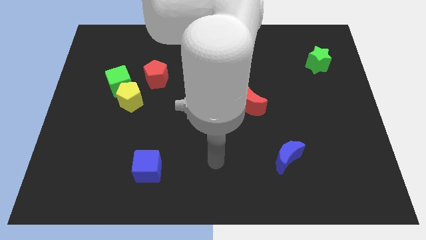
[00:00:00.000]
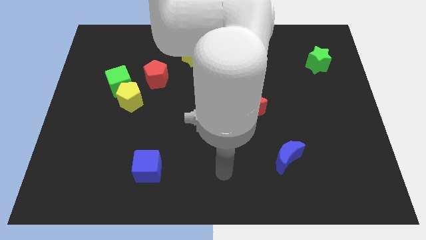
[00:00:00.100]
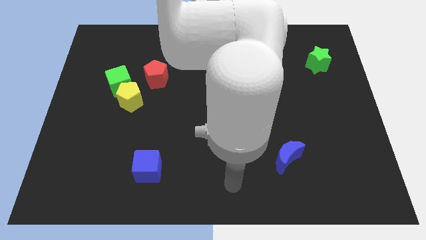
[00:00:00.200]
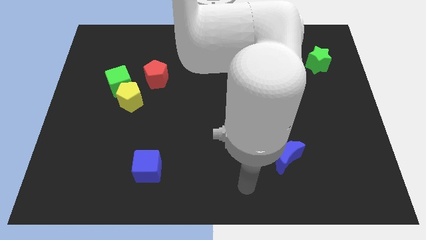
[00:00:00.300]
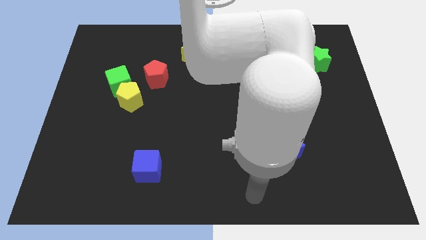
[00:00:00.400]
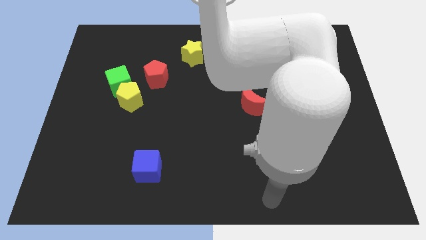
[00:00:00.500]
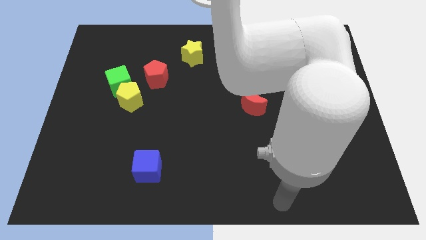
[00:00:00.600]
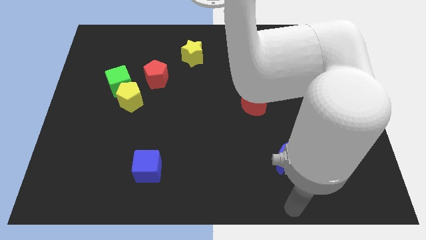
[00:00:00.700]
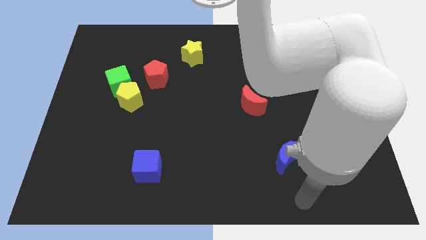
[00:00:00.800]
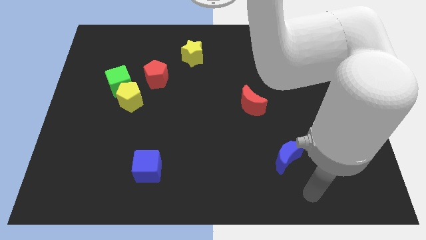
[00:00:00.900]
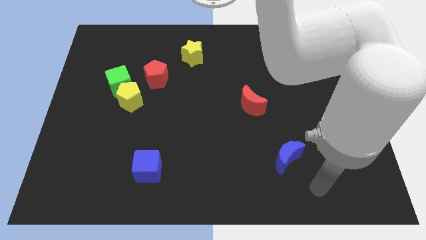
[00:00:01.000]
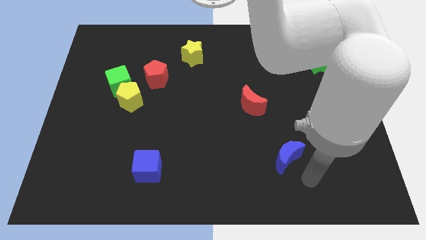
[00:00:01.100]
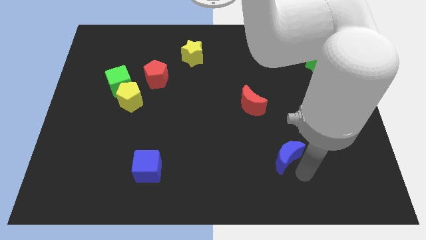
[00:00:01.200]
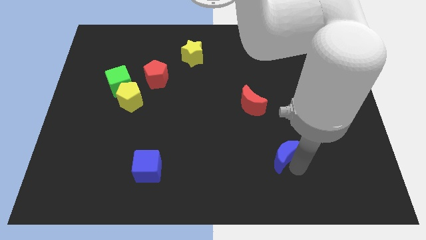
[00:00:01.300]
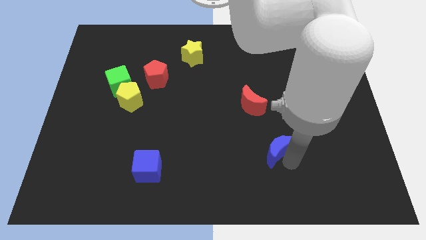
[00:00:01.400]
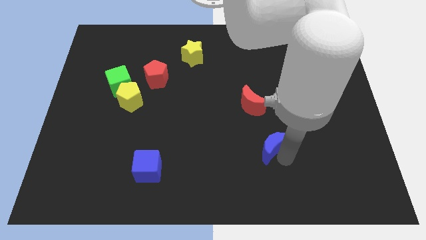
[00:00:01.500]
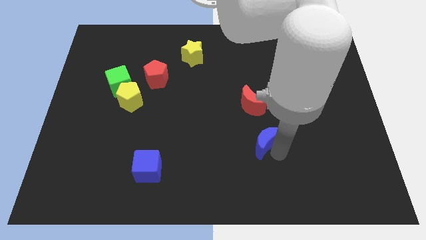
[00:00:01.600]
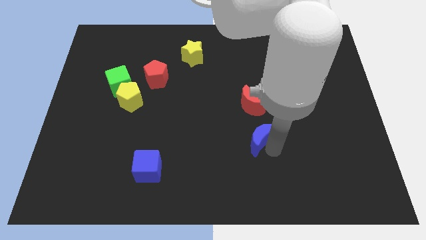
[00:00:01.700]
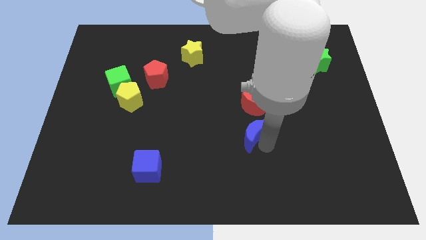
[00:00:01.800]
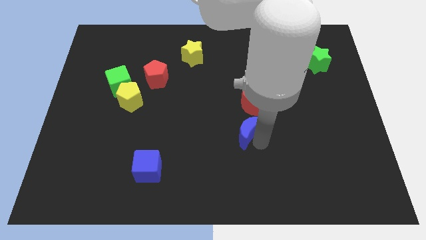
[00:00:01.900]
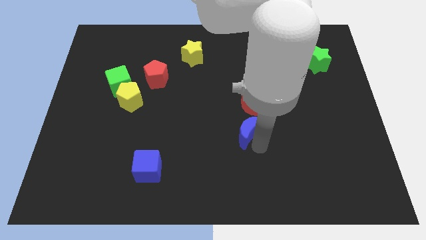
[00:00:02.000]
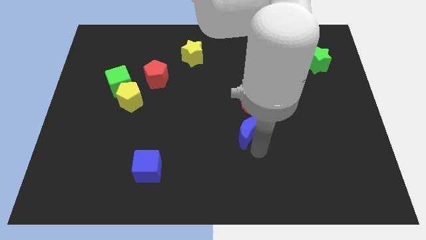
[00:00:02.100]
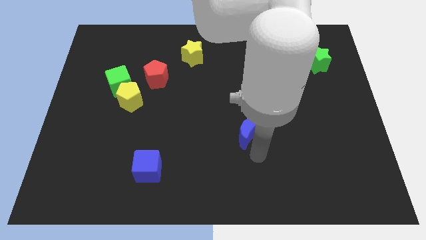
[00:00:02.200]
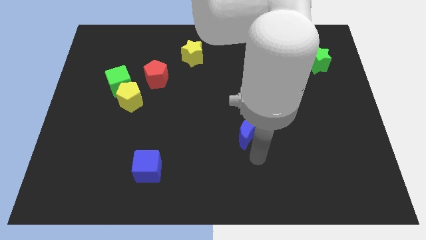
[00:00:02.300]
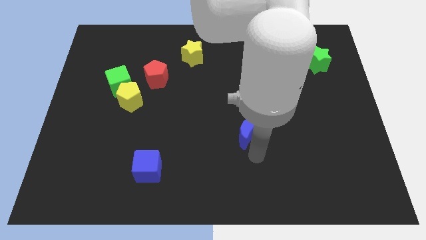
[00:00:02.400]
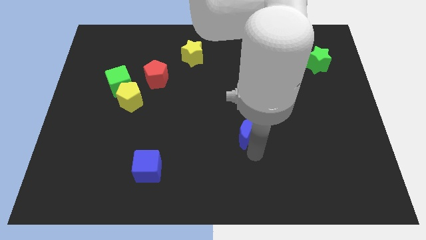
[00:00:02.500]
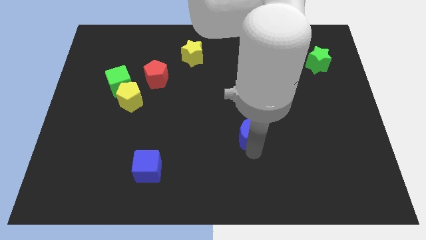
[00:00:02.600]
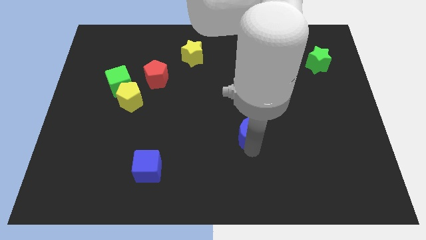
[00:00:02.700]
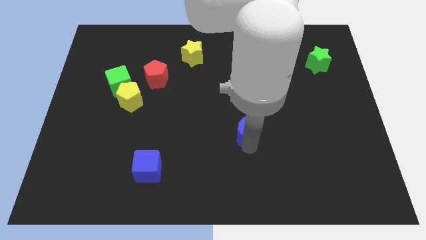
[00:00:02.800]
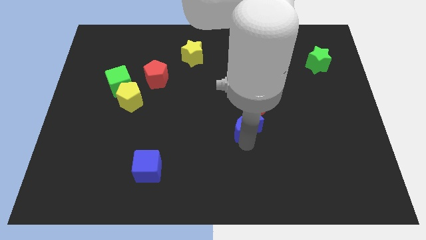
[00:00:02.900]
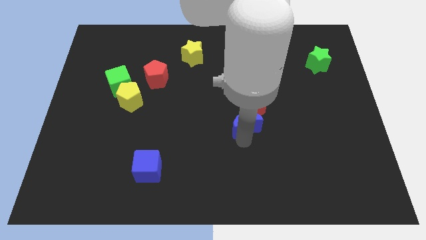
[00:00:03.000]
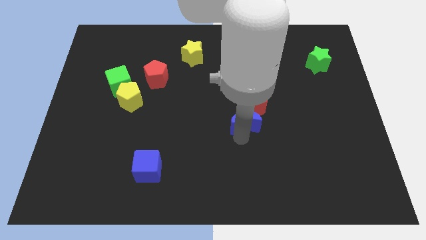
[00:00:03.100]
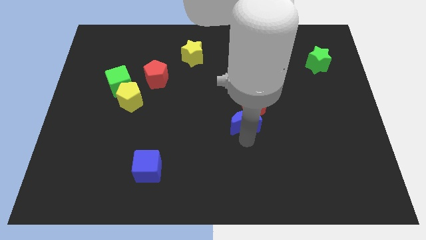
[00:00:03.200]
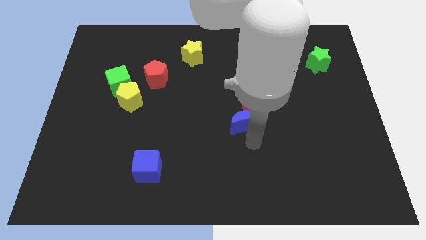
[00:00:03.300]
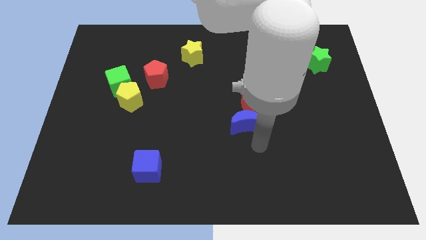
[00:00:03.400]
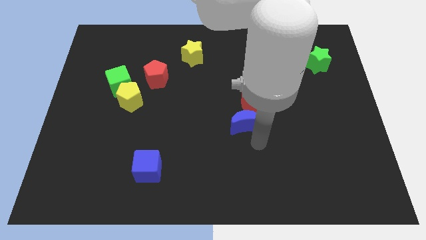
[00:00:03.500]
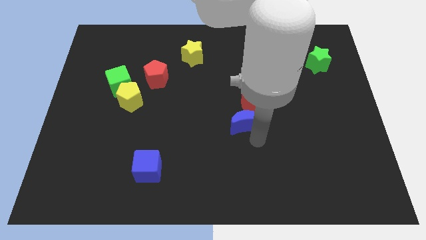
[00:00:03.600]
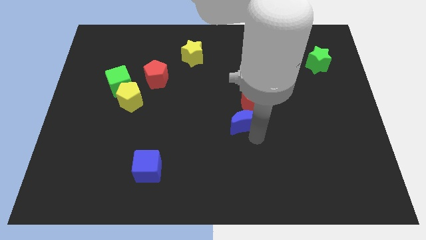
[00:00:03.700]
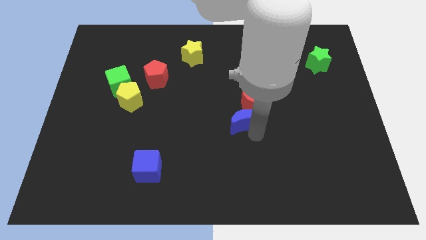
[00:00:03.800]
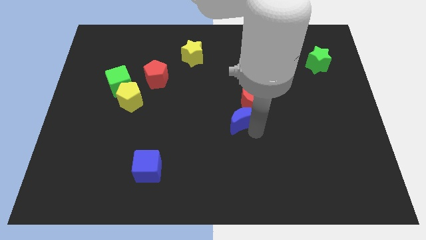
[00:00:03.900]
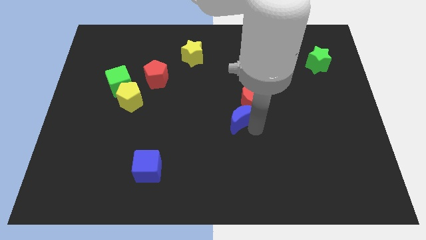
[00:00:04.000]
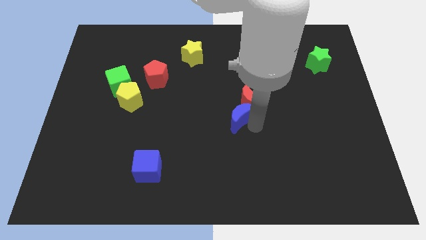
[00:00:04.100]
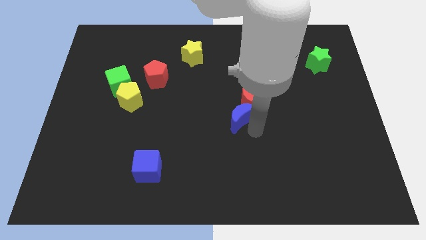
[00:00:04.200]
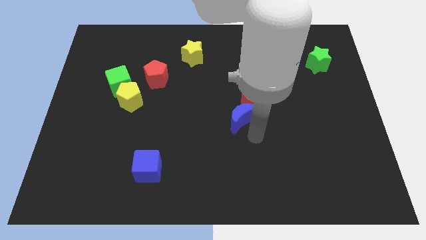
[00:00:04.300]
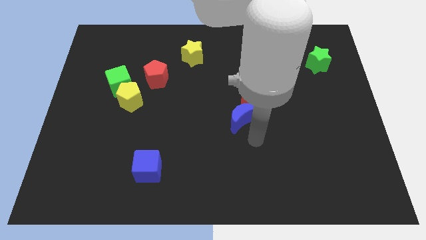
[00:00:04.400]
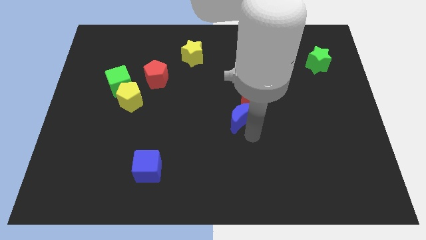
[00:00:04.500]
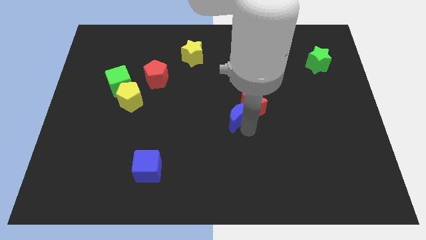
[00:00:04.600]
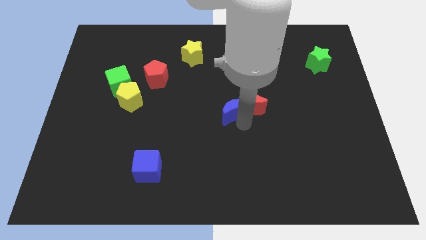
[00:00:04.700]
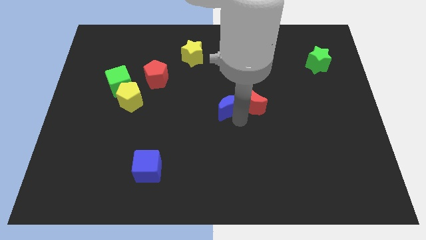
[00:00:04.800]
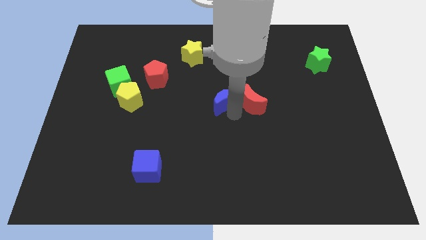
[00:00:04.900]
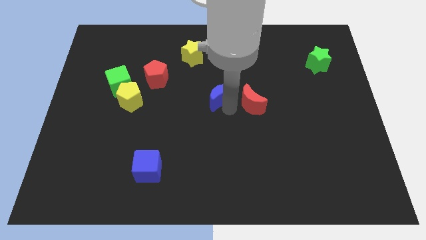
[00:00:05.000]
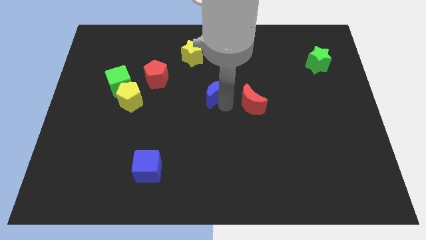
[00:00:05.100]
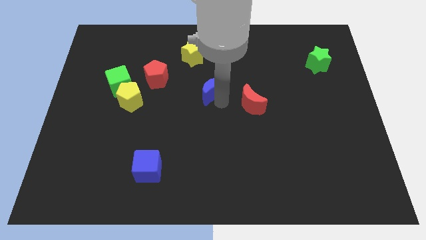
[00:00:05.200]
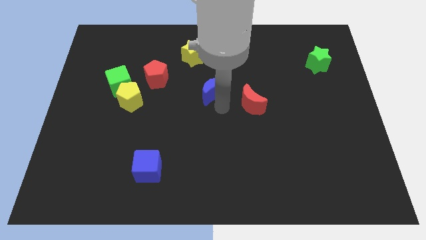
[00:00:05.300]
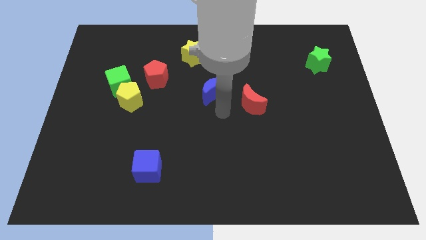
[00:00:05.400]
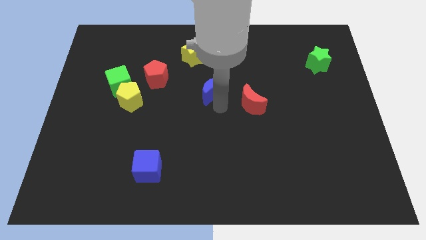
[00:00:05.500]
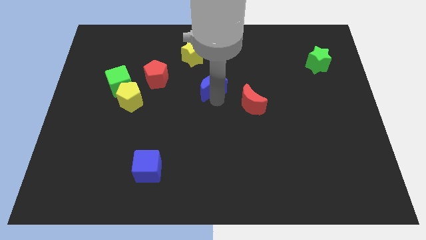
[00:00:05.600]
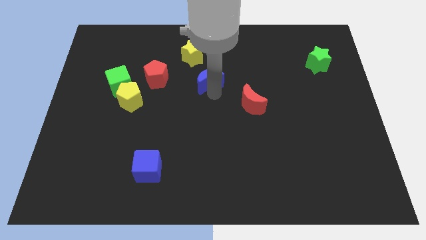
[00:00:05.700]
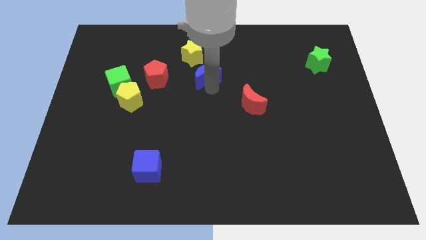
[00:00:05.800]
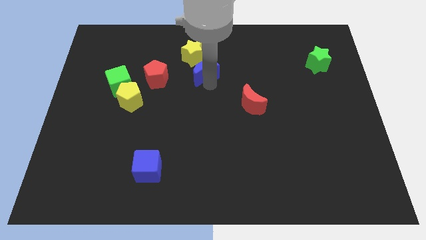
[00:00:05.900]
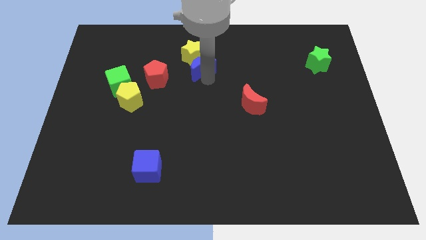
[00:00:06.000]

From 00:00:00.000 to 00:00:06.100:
slide the blue moon next to the yellow star

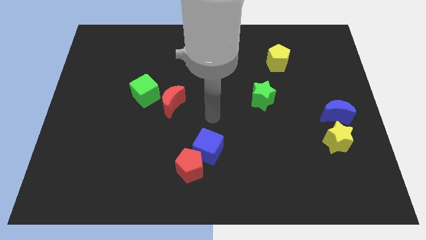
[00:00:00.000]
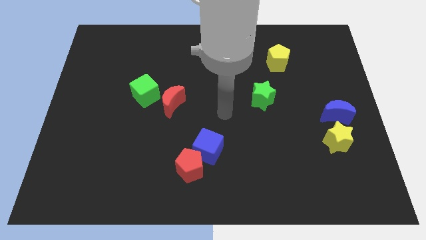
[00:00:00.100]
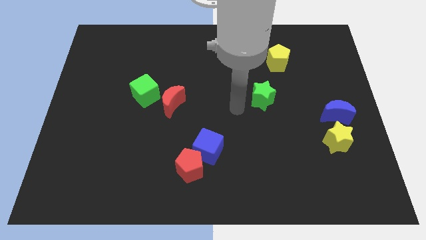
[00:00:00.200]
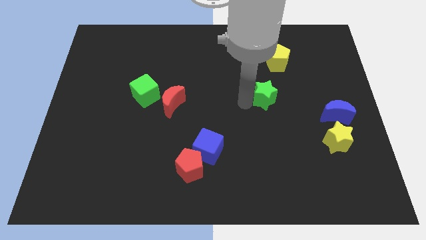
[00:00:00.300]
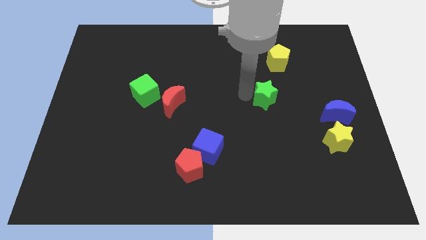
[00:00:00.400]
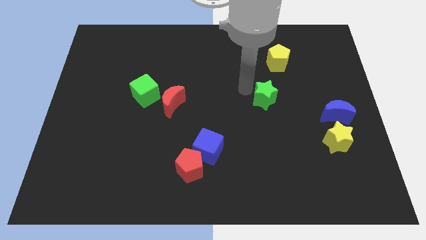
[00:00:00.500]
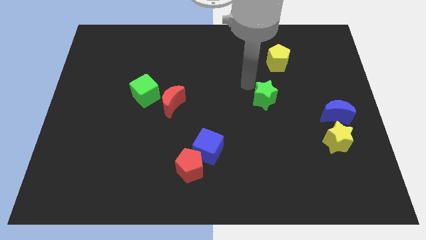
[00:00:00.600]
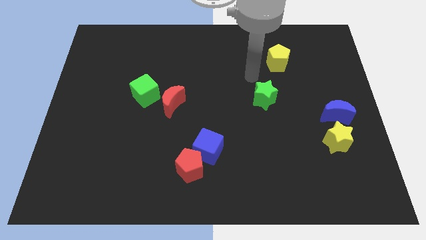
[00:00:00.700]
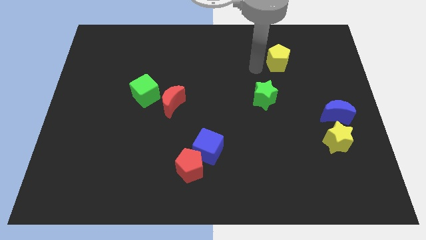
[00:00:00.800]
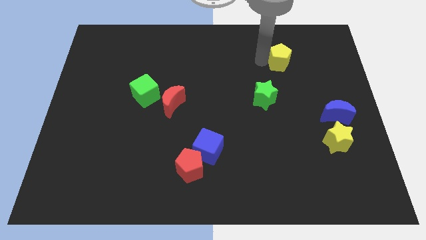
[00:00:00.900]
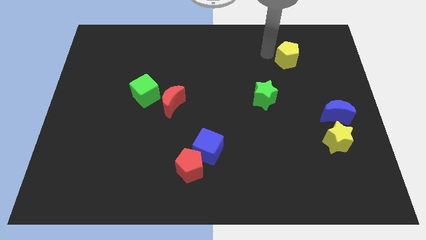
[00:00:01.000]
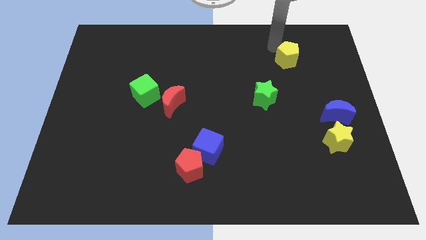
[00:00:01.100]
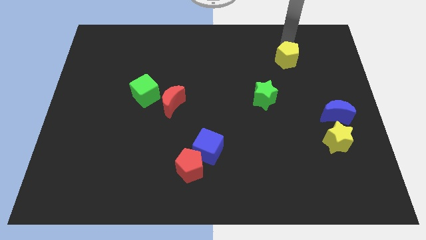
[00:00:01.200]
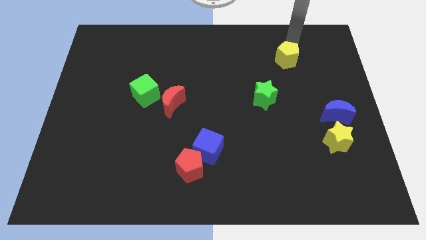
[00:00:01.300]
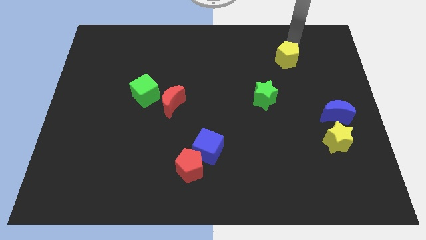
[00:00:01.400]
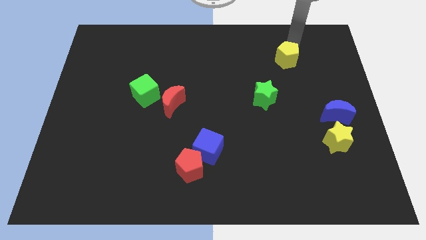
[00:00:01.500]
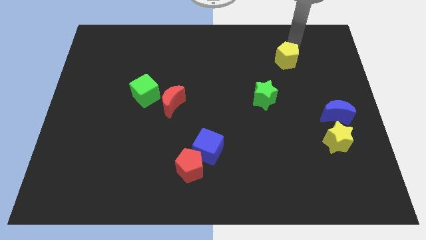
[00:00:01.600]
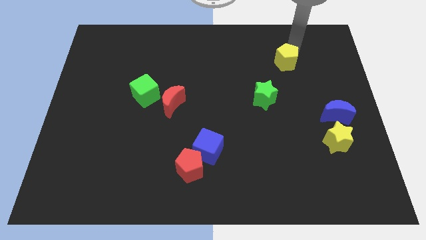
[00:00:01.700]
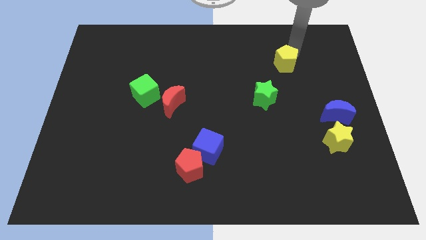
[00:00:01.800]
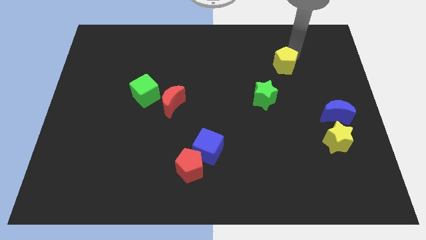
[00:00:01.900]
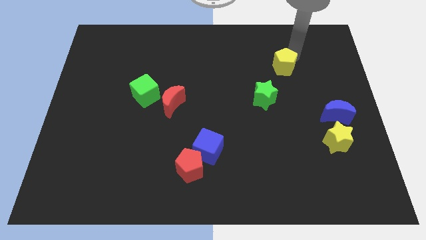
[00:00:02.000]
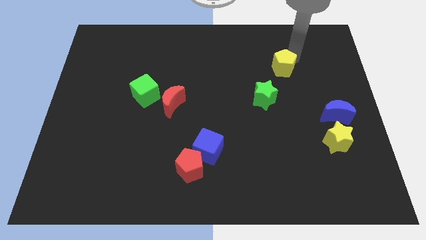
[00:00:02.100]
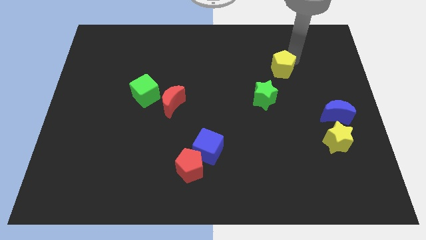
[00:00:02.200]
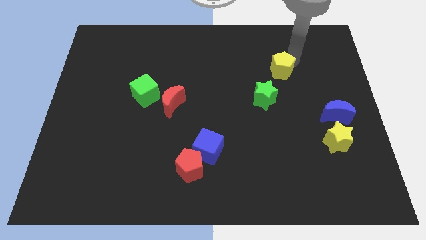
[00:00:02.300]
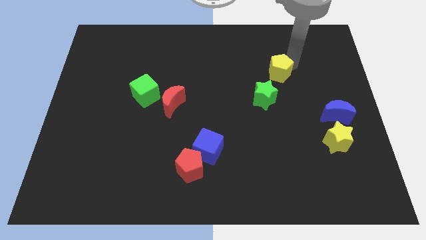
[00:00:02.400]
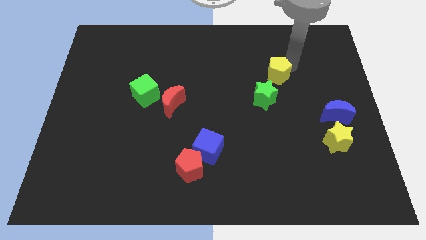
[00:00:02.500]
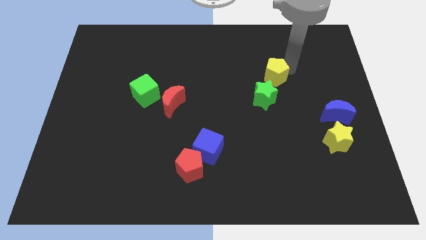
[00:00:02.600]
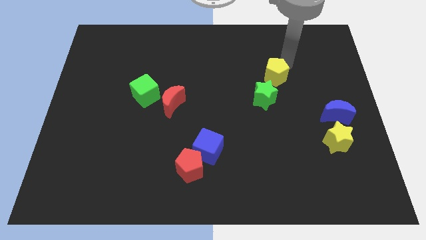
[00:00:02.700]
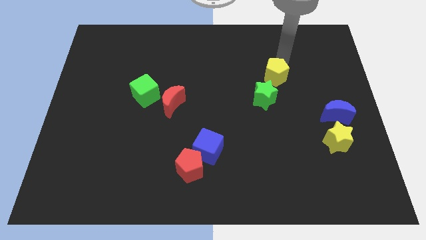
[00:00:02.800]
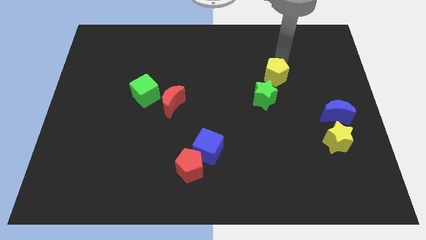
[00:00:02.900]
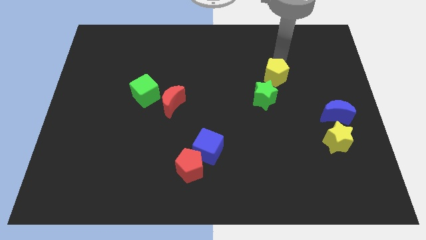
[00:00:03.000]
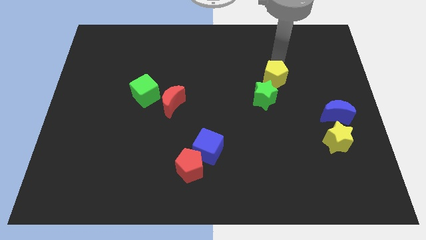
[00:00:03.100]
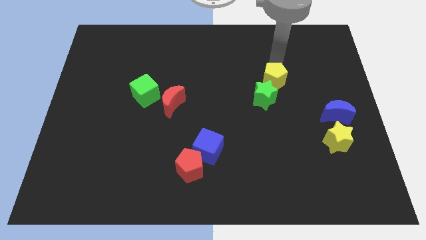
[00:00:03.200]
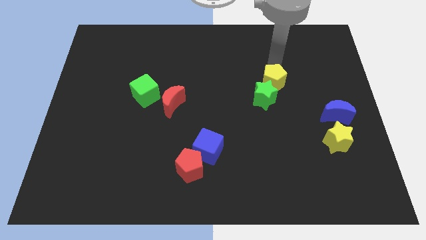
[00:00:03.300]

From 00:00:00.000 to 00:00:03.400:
push the yellow pentagon towards the green star
